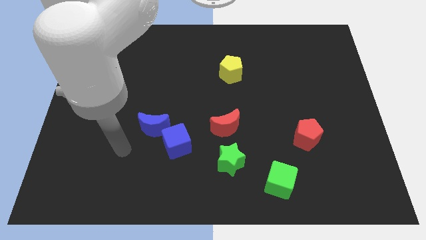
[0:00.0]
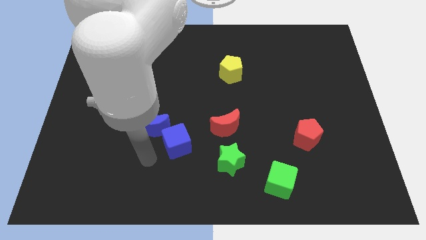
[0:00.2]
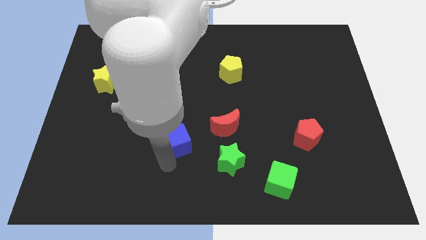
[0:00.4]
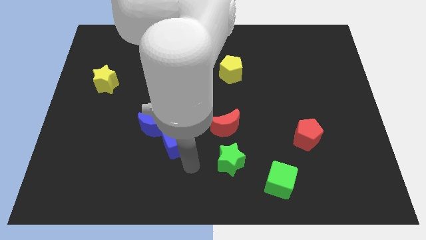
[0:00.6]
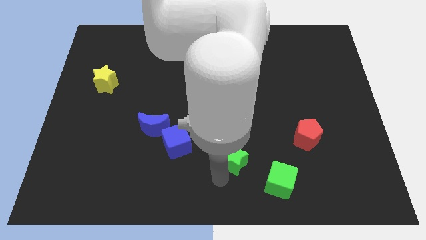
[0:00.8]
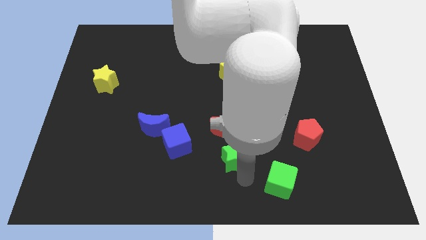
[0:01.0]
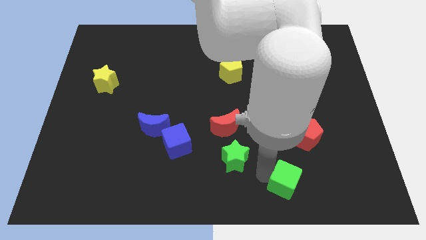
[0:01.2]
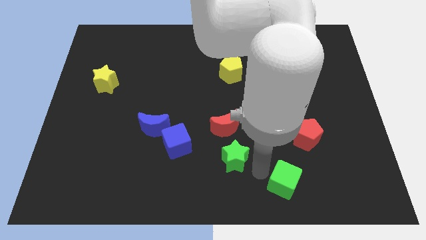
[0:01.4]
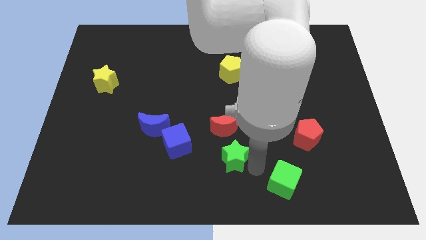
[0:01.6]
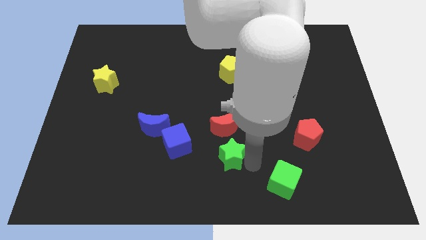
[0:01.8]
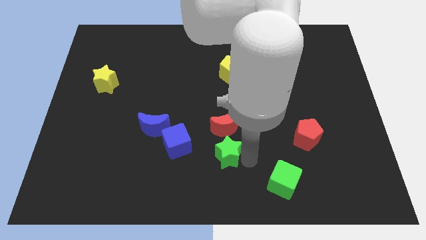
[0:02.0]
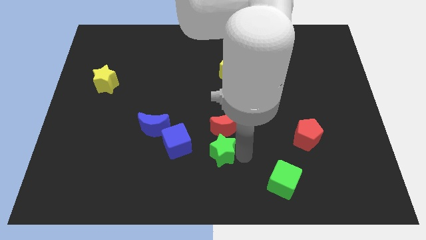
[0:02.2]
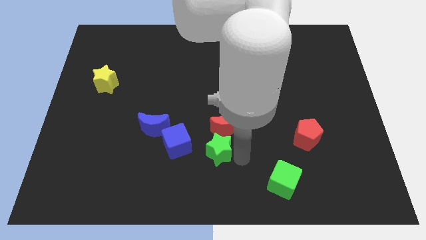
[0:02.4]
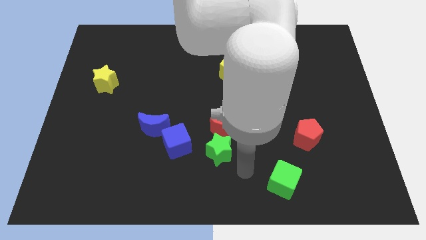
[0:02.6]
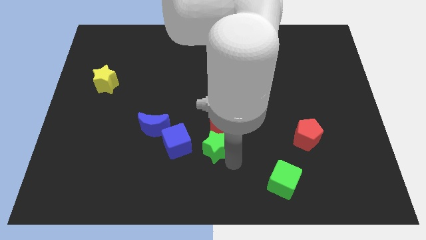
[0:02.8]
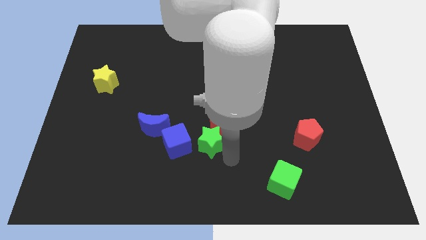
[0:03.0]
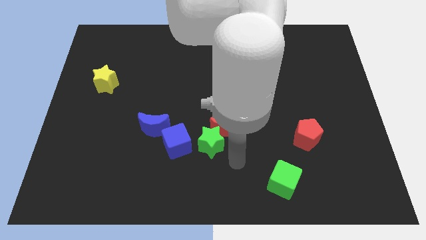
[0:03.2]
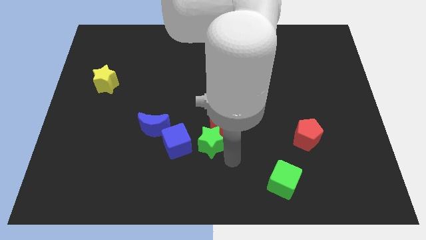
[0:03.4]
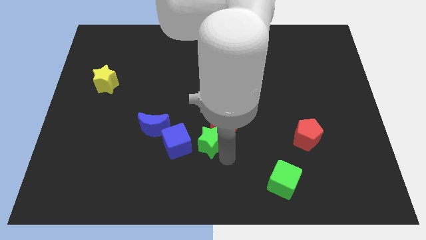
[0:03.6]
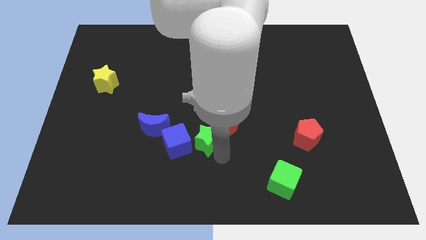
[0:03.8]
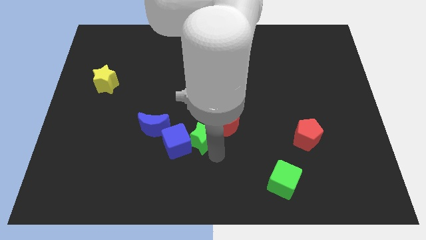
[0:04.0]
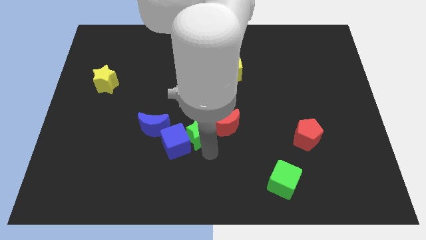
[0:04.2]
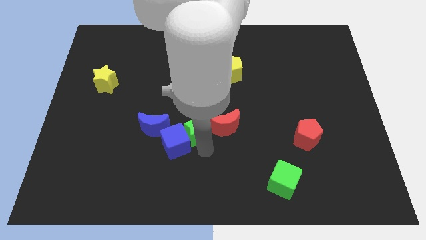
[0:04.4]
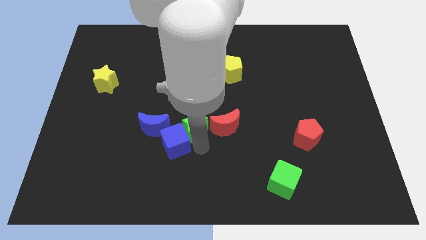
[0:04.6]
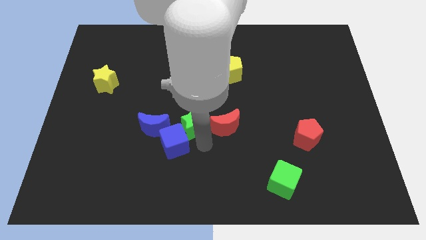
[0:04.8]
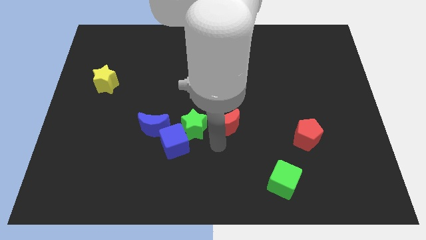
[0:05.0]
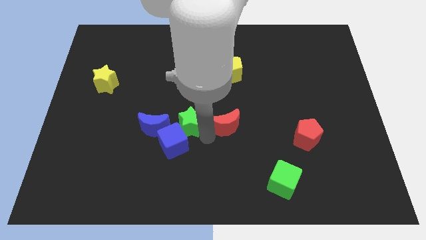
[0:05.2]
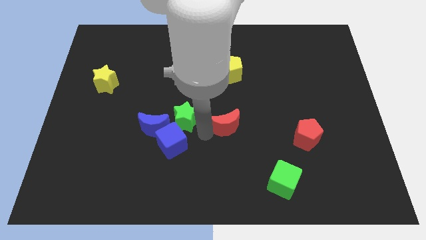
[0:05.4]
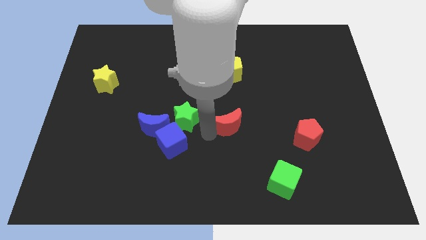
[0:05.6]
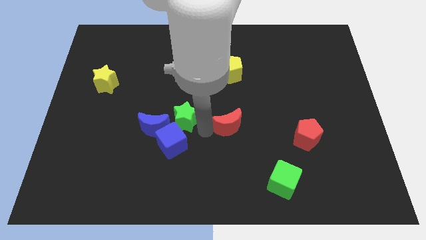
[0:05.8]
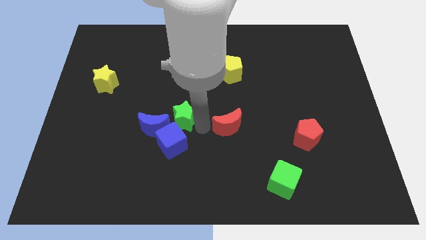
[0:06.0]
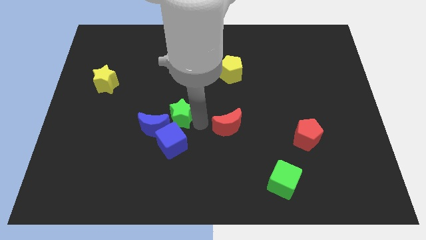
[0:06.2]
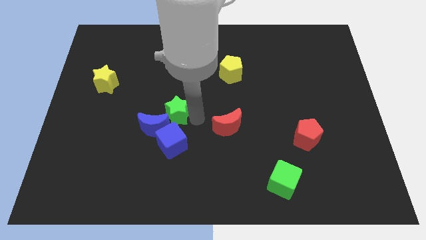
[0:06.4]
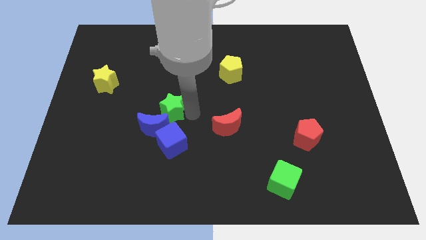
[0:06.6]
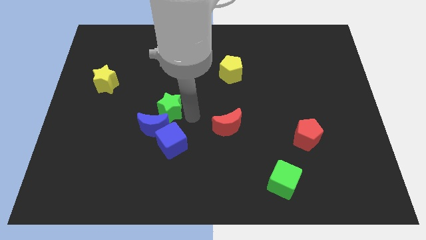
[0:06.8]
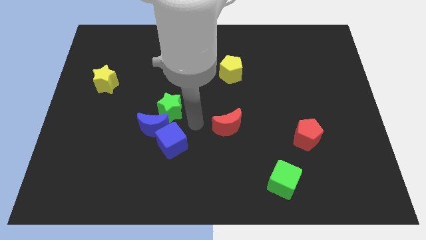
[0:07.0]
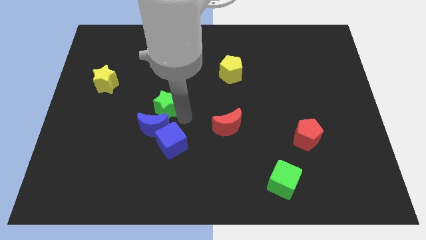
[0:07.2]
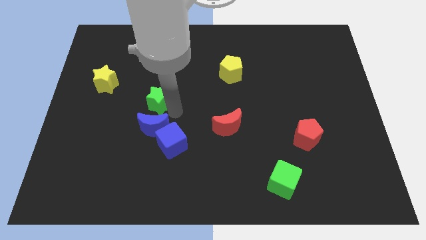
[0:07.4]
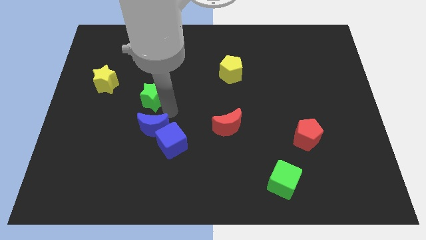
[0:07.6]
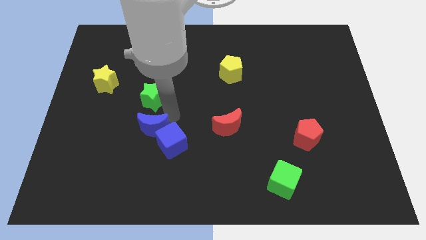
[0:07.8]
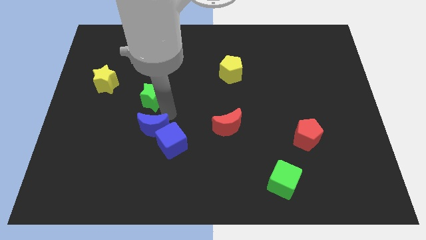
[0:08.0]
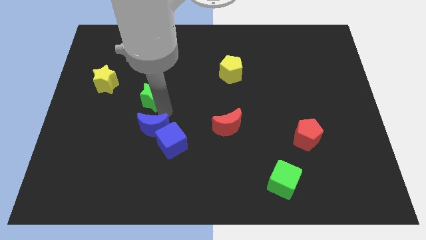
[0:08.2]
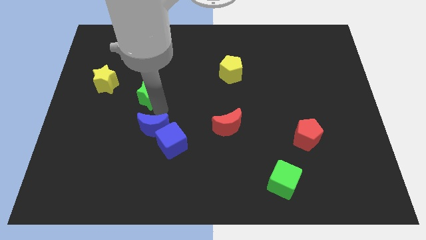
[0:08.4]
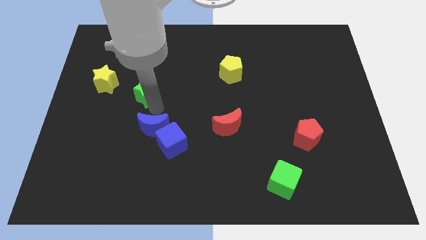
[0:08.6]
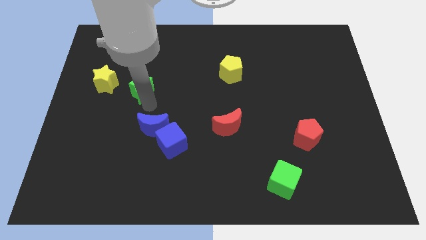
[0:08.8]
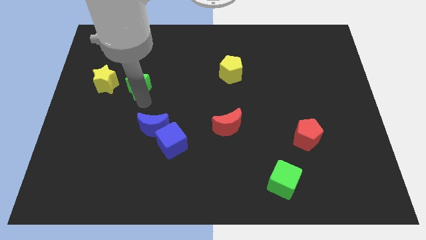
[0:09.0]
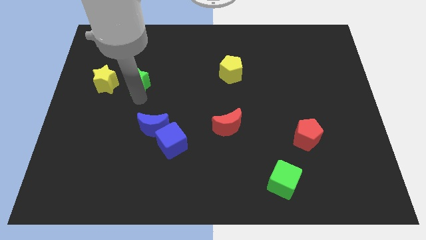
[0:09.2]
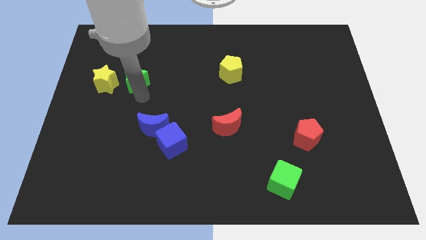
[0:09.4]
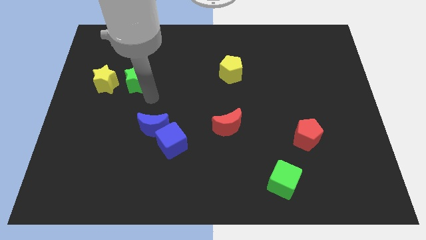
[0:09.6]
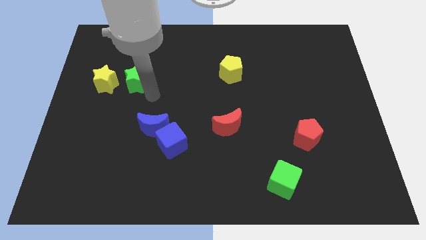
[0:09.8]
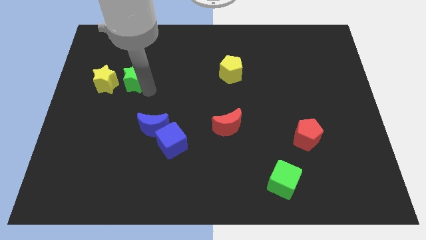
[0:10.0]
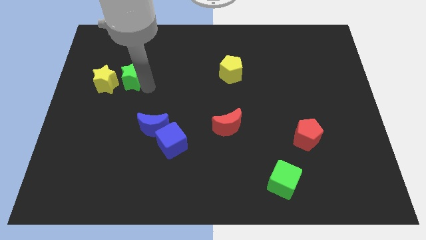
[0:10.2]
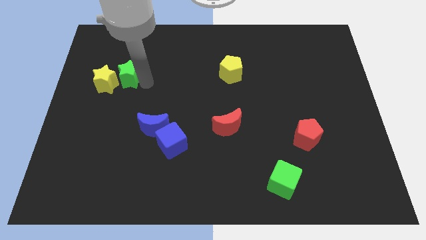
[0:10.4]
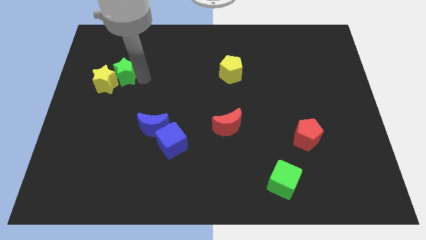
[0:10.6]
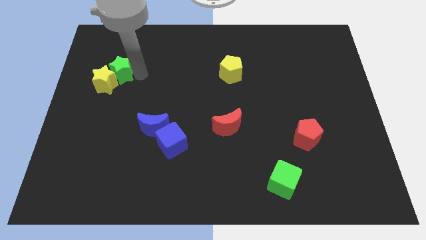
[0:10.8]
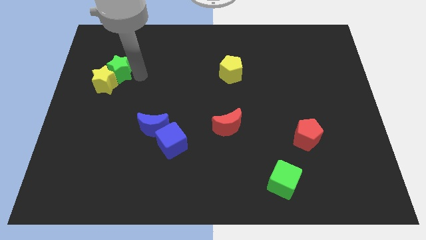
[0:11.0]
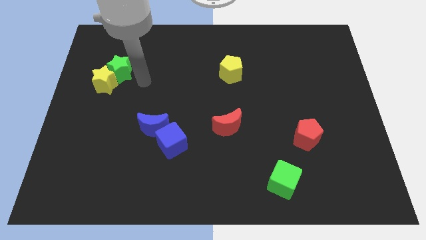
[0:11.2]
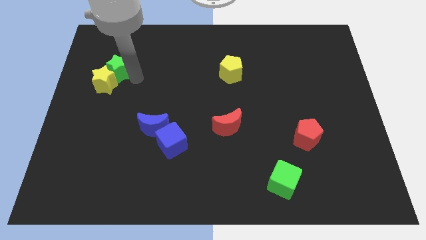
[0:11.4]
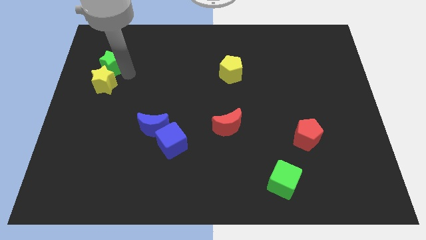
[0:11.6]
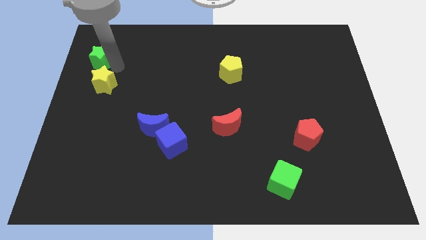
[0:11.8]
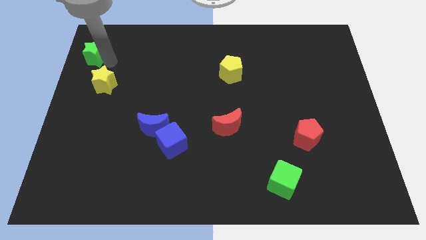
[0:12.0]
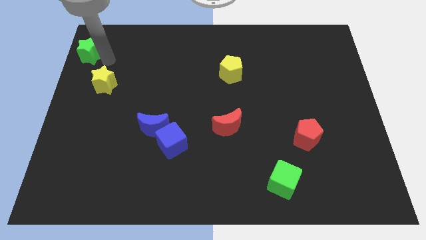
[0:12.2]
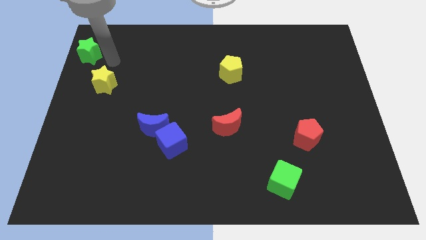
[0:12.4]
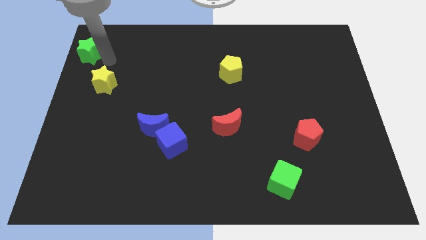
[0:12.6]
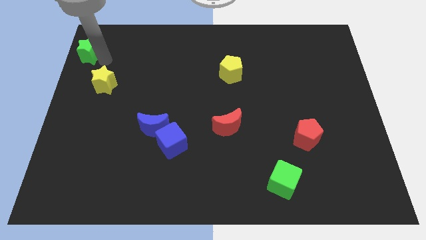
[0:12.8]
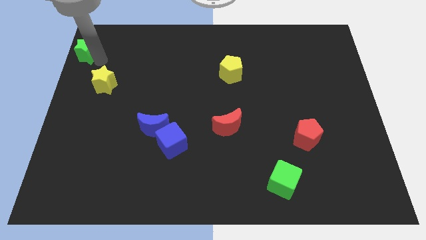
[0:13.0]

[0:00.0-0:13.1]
put the green star to the top left of the board
